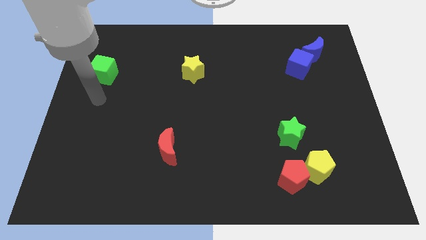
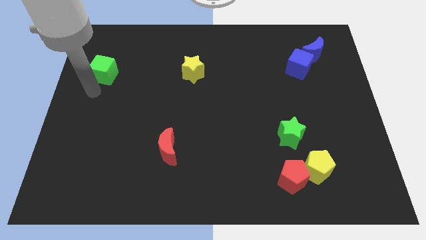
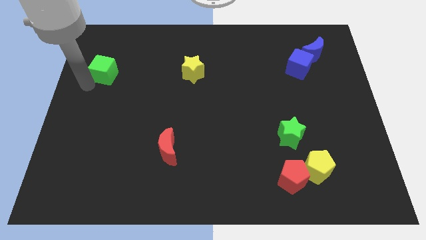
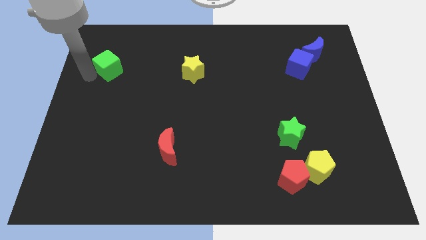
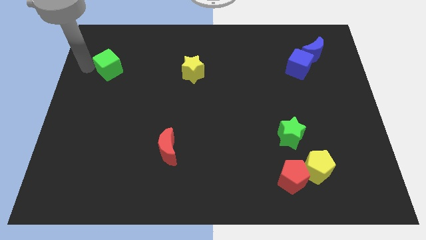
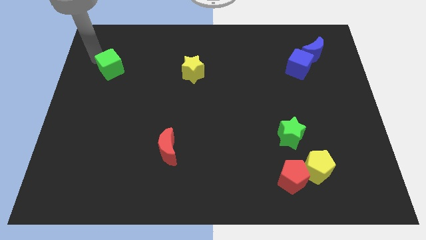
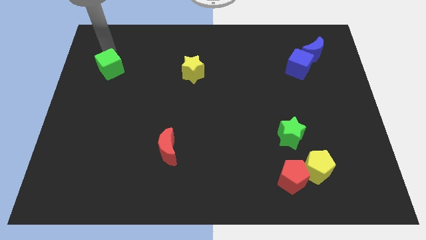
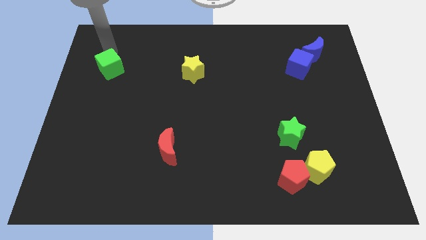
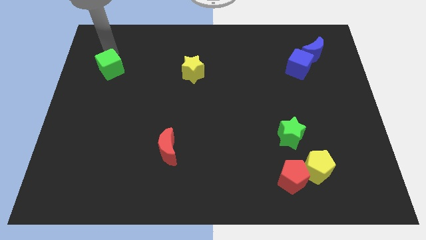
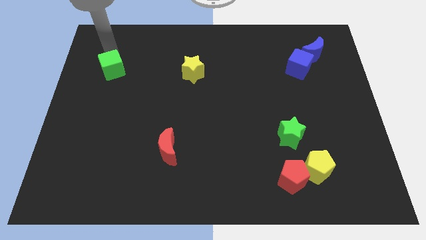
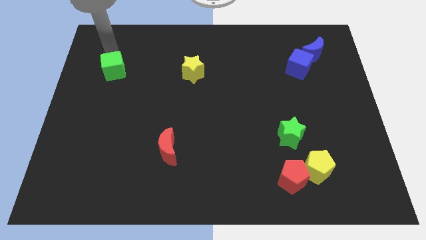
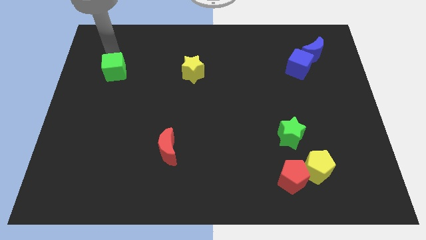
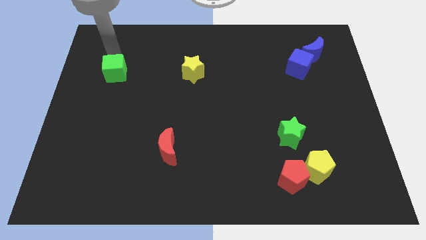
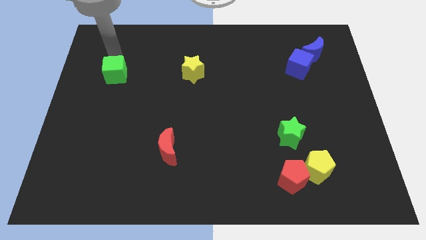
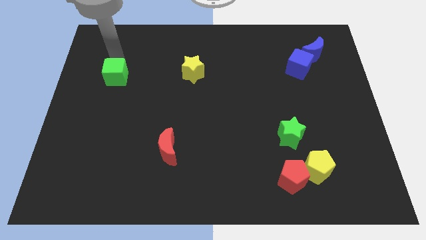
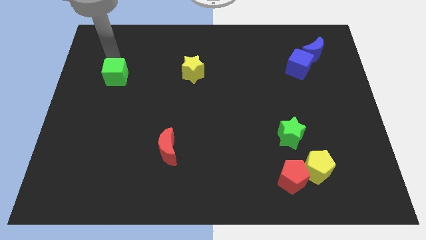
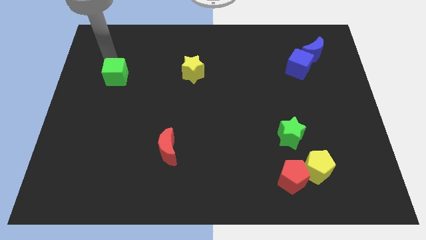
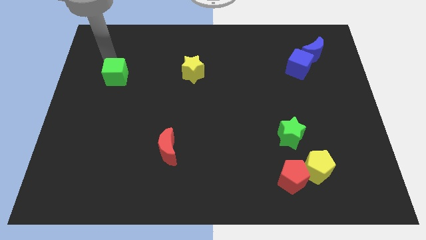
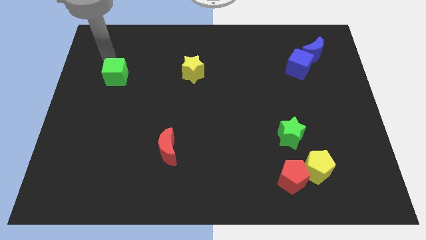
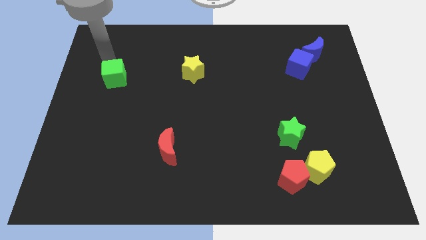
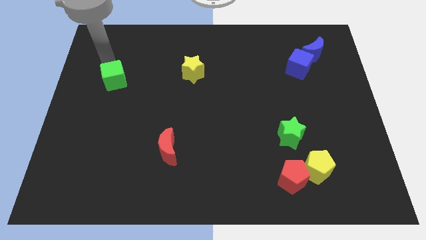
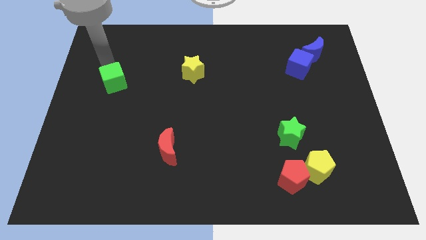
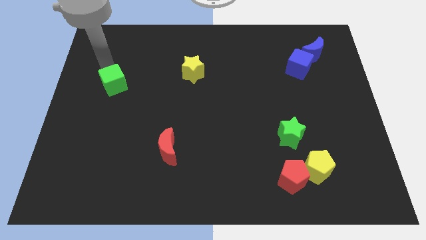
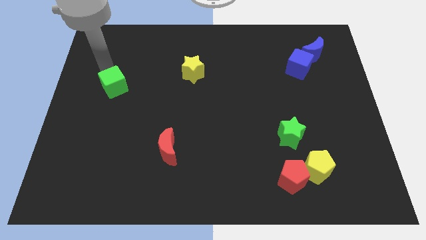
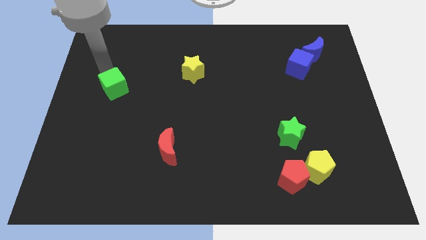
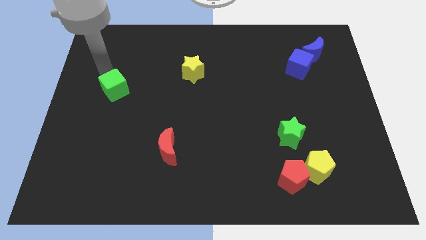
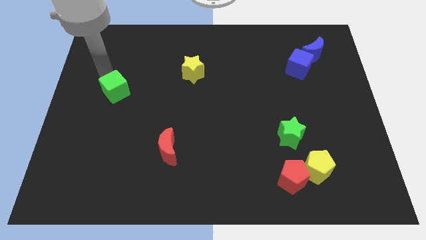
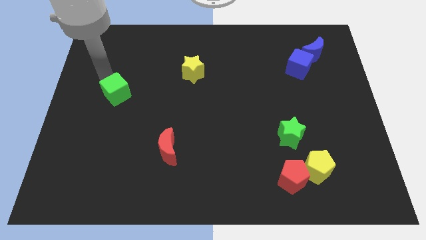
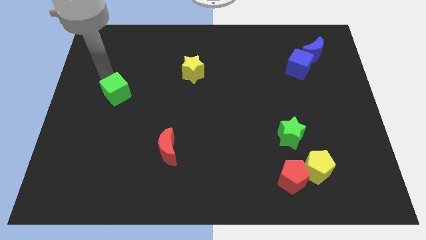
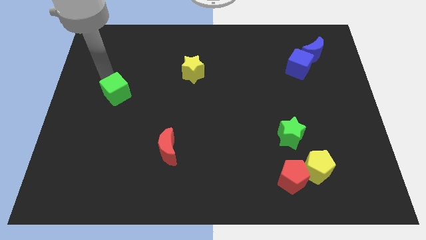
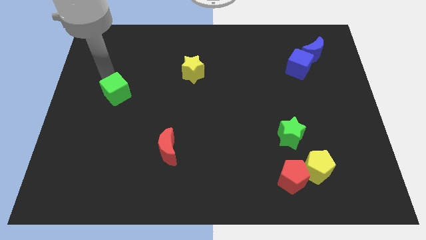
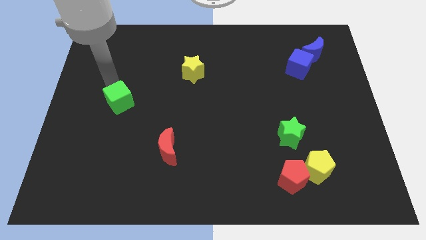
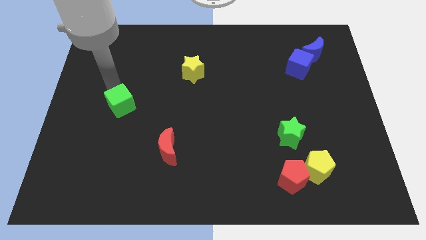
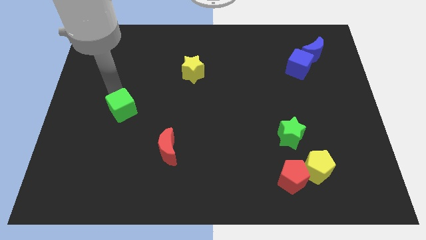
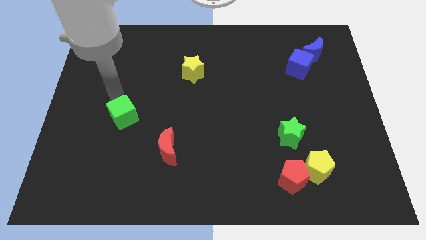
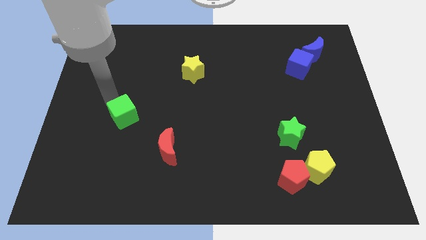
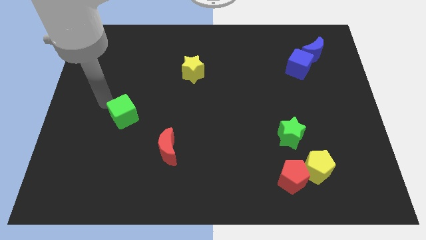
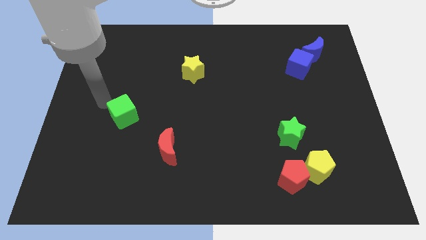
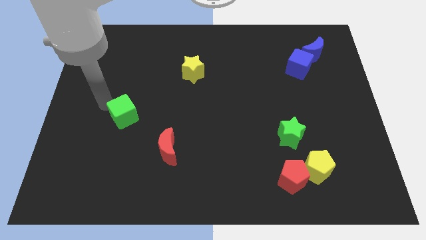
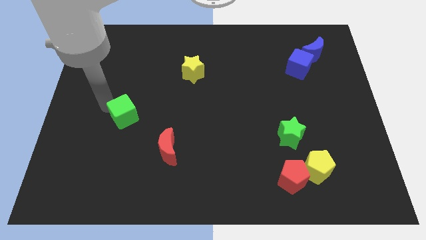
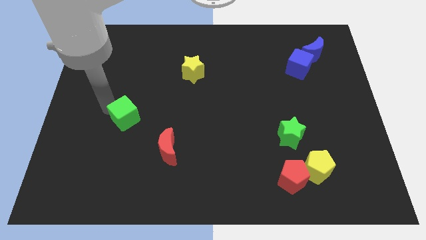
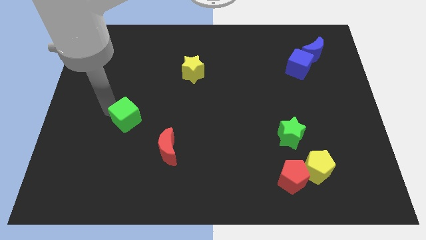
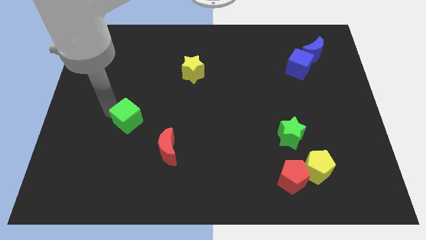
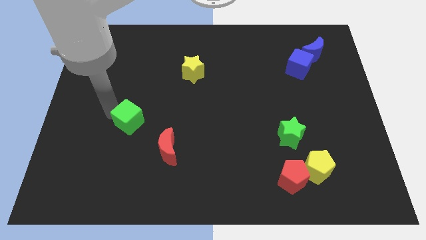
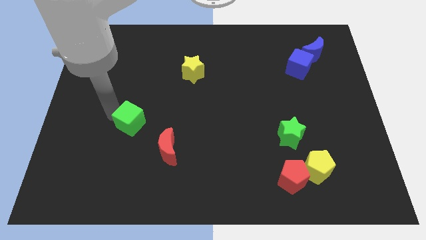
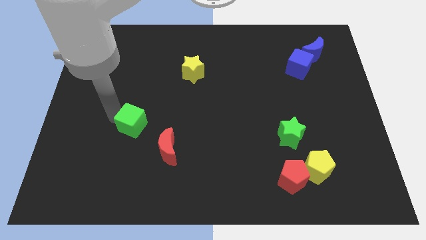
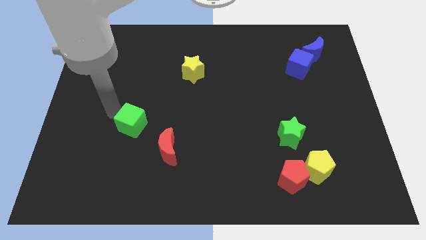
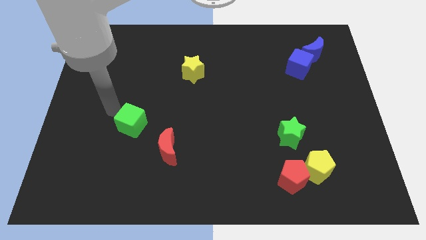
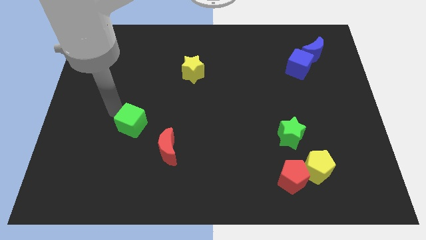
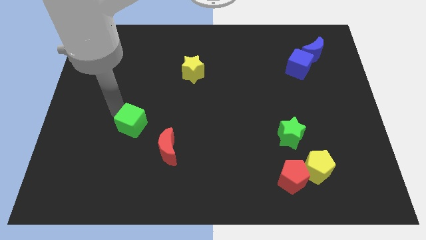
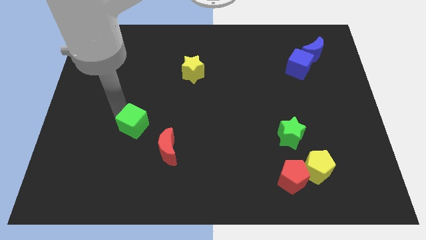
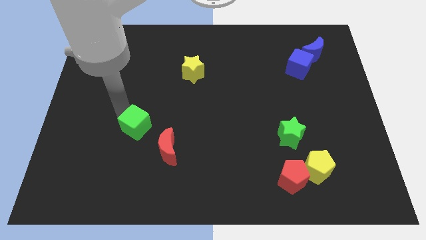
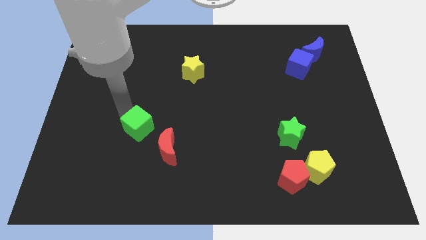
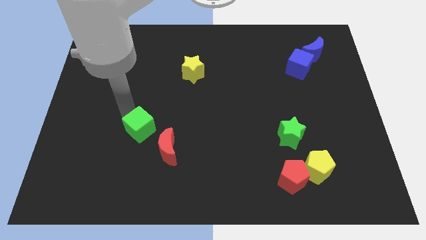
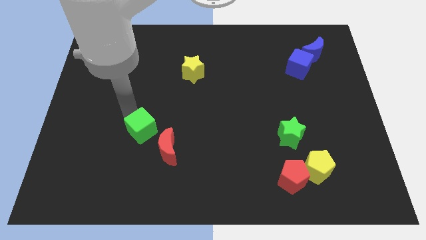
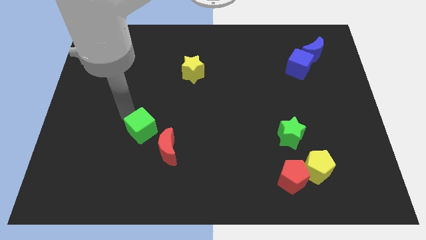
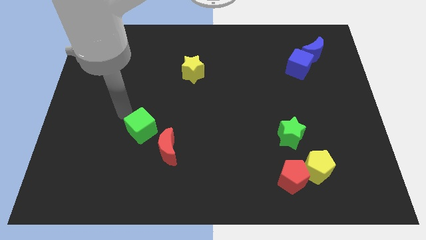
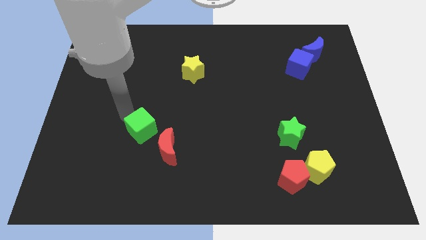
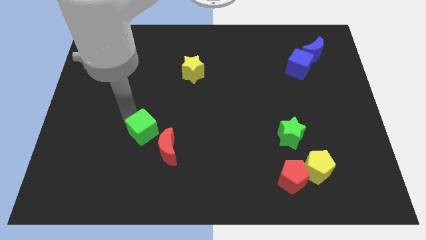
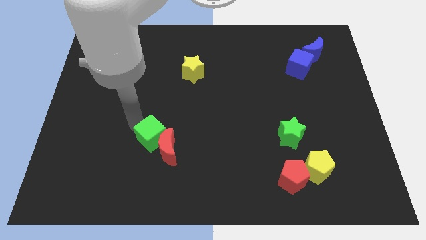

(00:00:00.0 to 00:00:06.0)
move the green cube towards the red moon

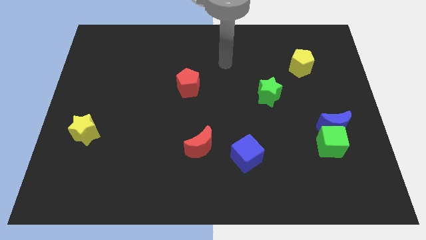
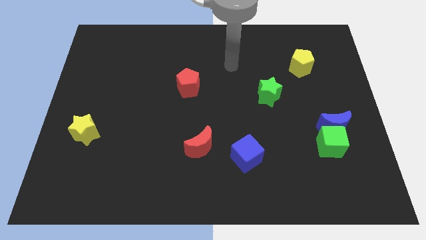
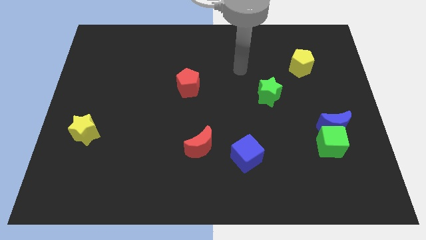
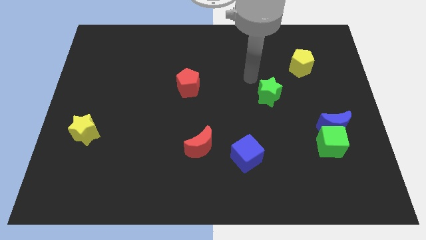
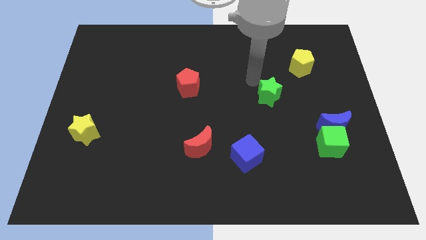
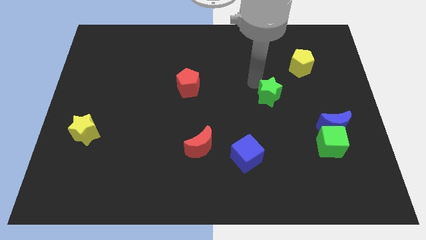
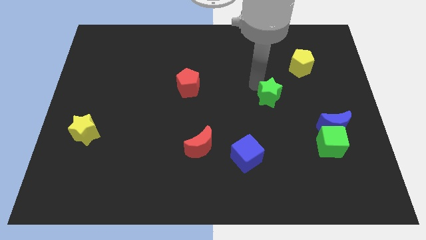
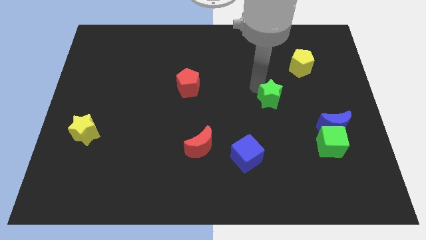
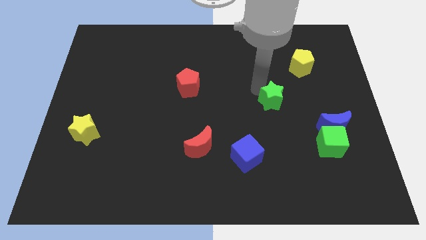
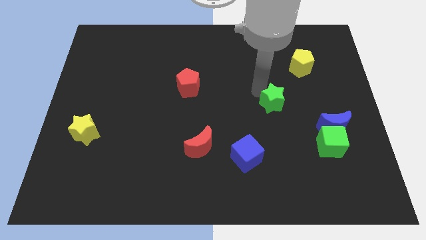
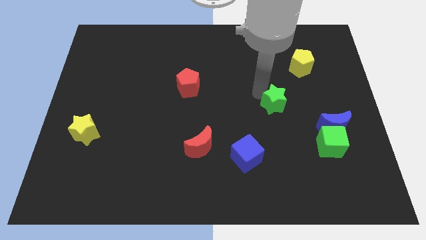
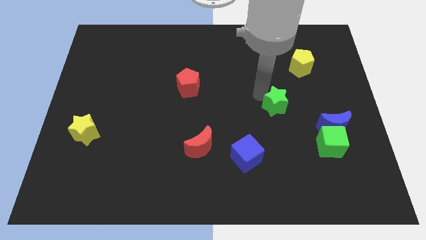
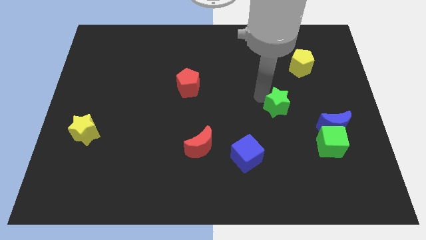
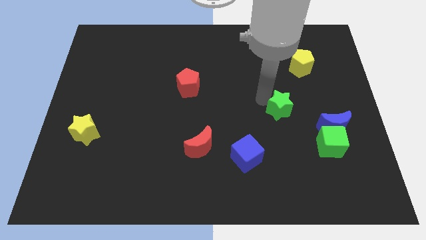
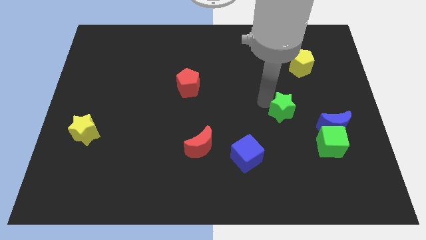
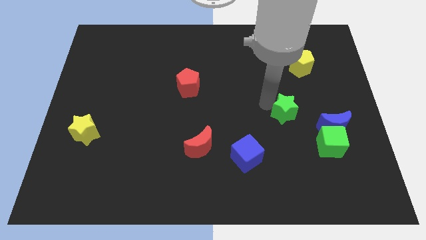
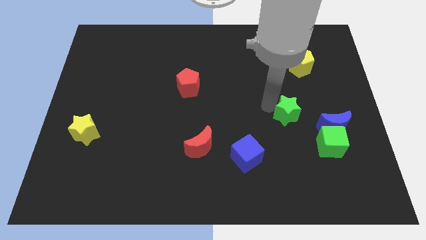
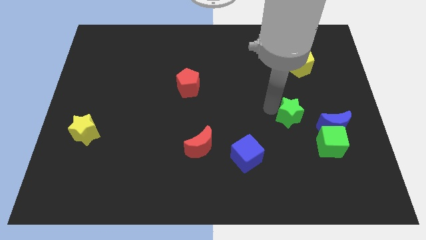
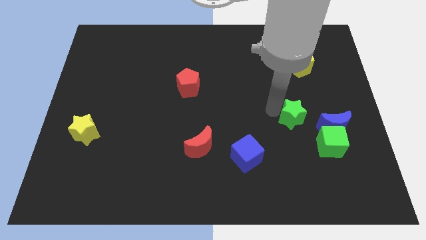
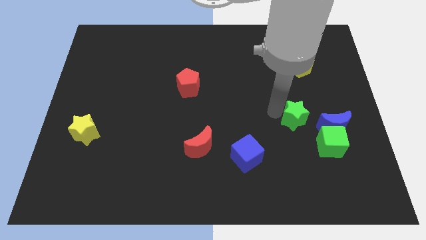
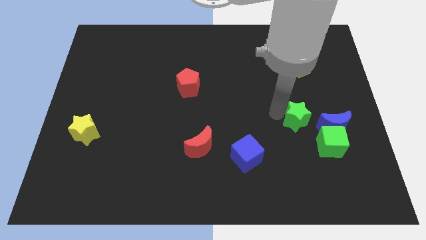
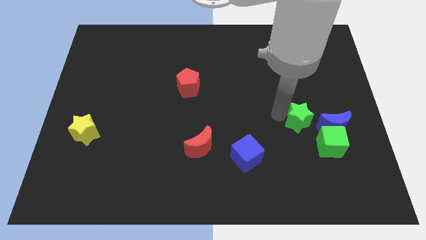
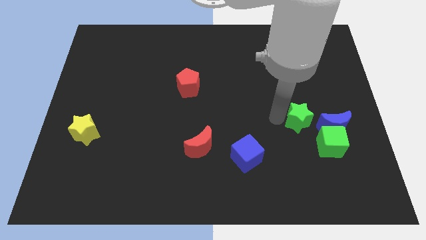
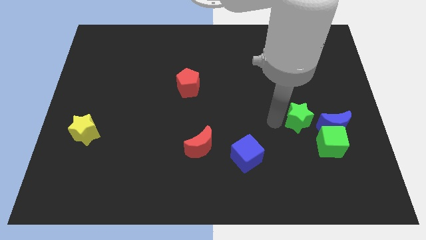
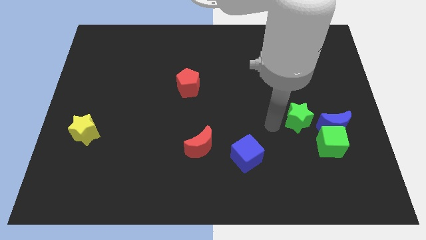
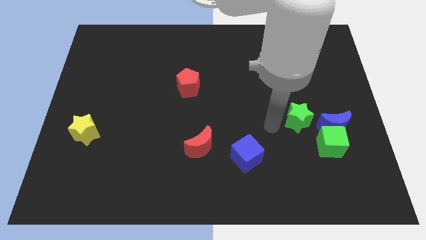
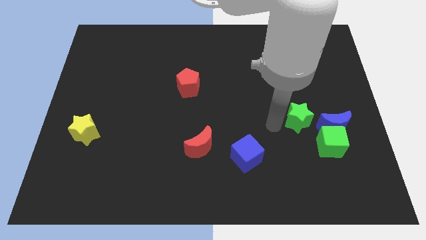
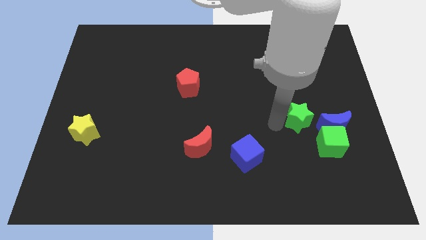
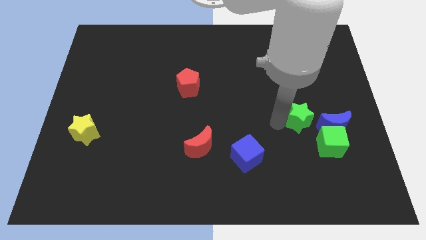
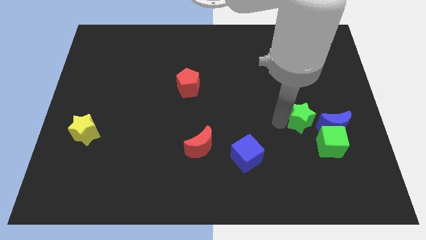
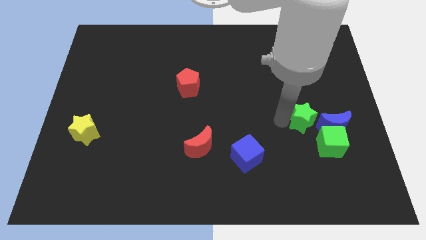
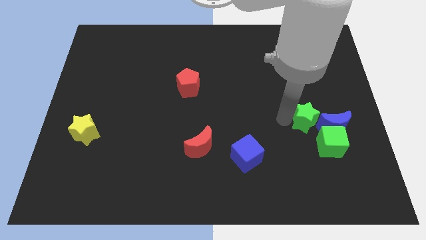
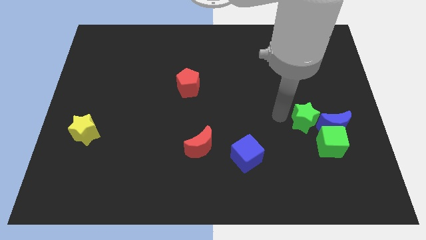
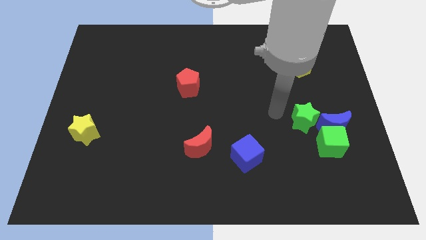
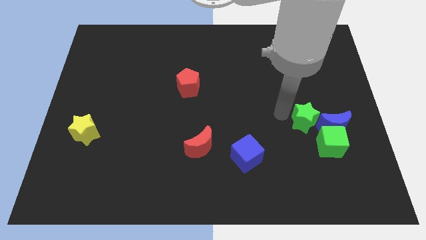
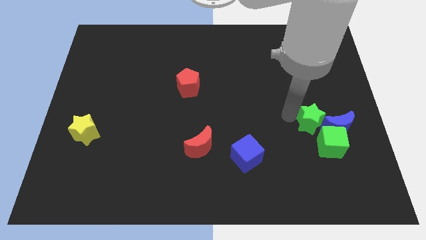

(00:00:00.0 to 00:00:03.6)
push the green star close to the blue moon
